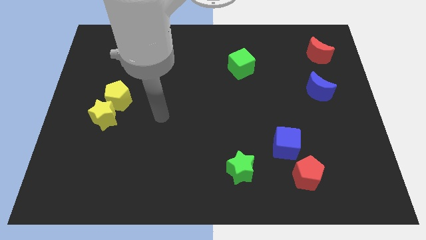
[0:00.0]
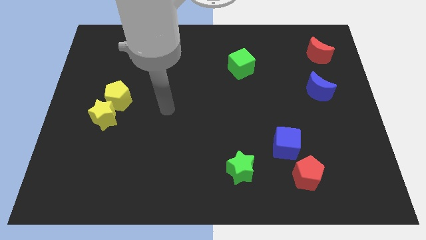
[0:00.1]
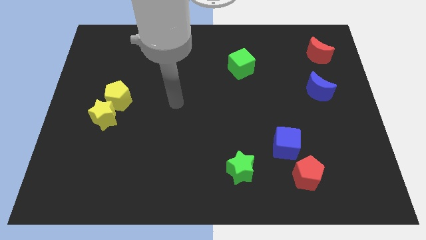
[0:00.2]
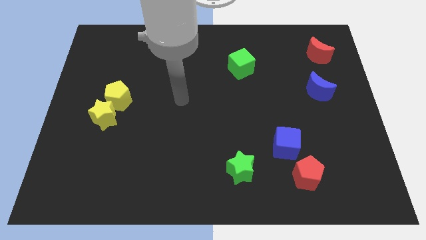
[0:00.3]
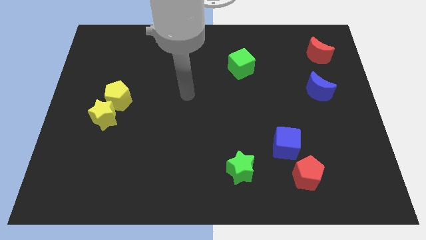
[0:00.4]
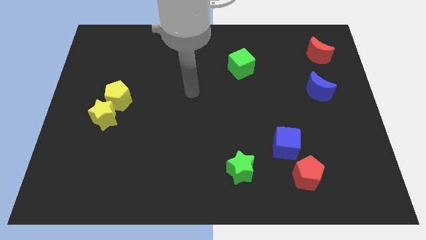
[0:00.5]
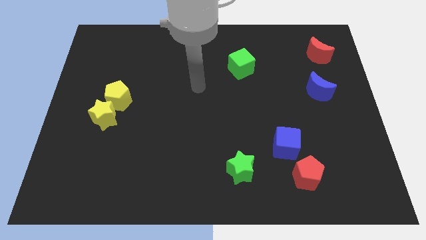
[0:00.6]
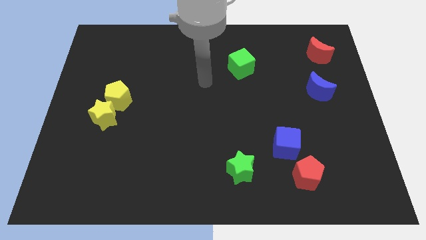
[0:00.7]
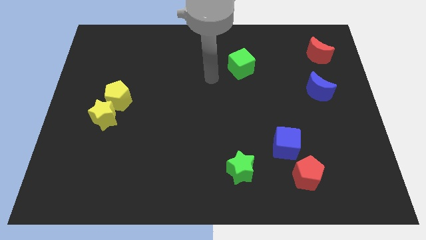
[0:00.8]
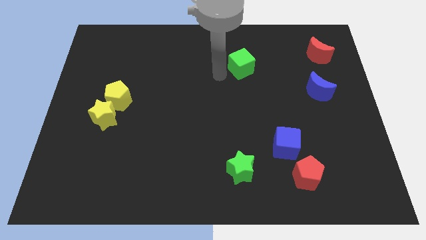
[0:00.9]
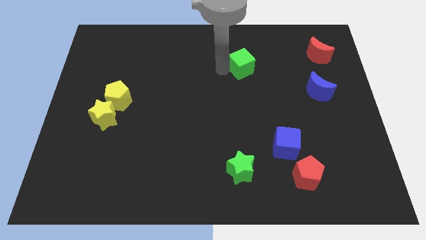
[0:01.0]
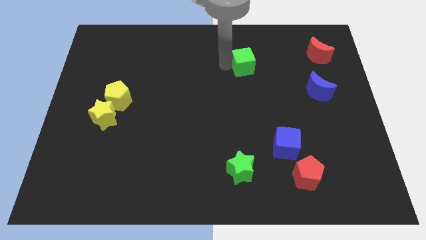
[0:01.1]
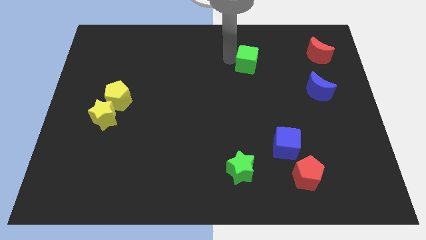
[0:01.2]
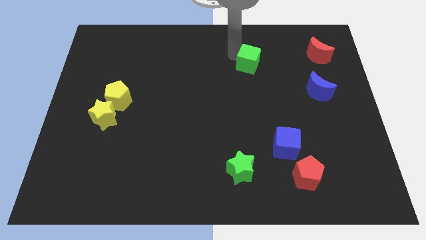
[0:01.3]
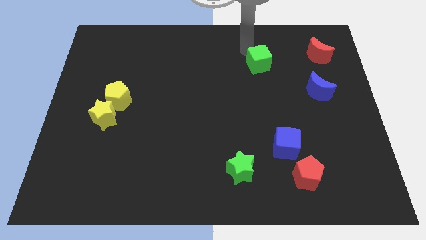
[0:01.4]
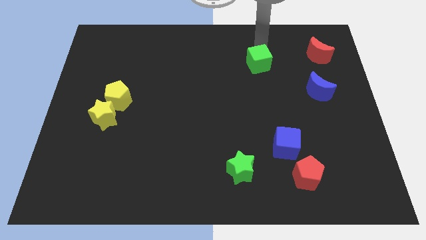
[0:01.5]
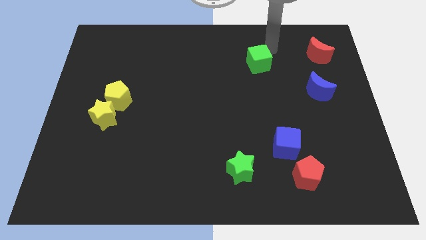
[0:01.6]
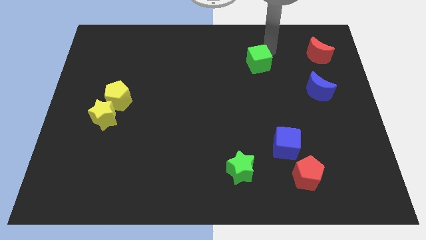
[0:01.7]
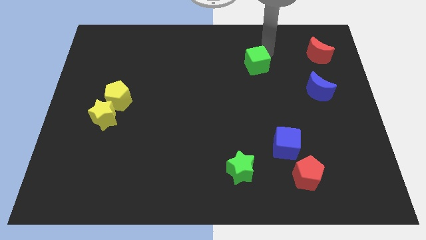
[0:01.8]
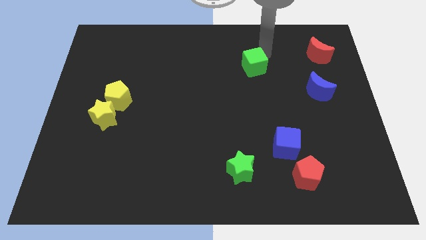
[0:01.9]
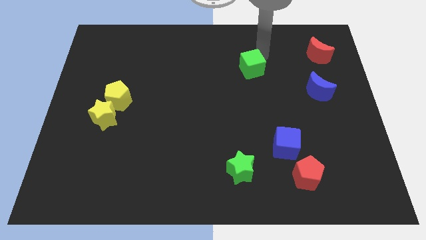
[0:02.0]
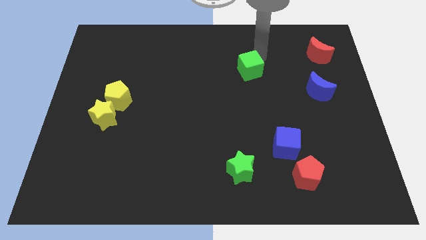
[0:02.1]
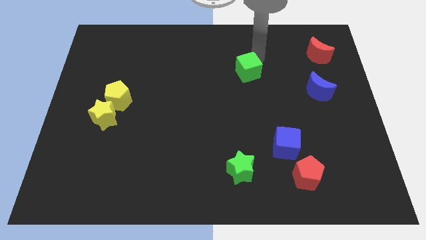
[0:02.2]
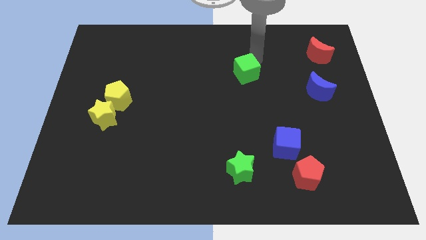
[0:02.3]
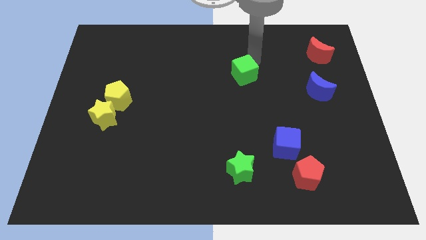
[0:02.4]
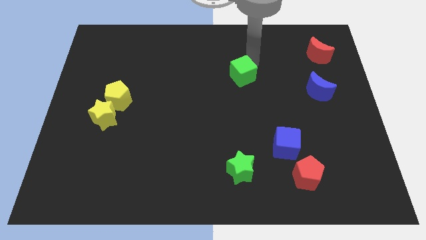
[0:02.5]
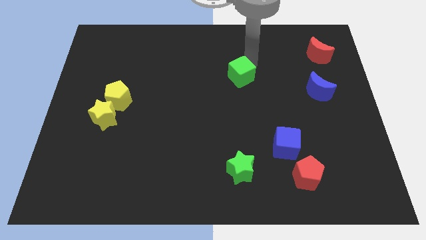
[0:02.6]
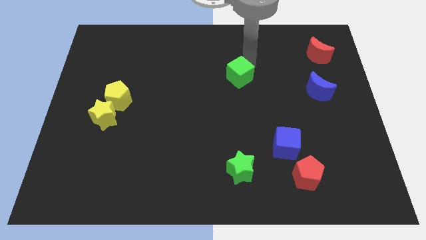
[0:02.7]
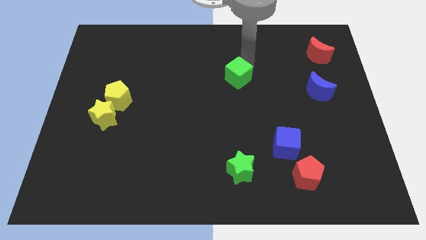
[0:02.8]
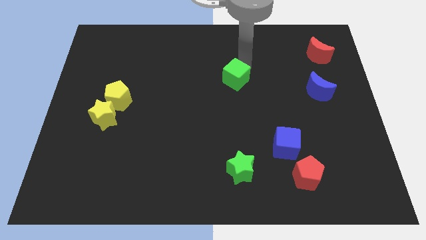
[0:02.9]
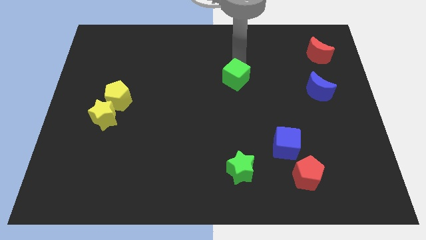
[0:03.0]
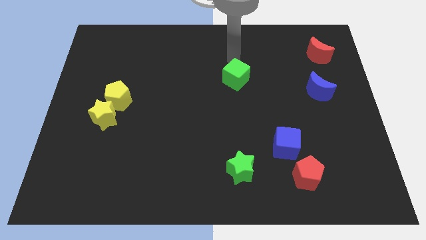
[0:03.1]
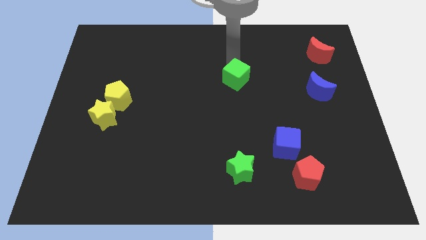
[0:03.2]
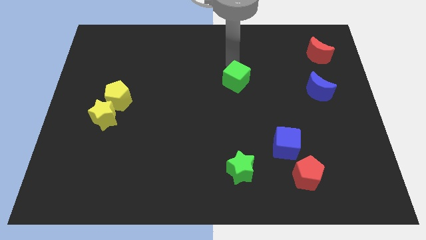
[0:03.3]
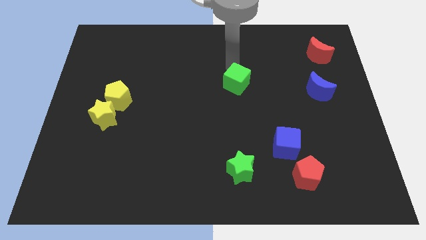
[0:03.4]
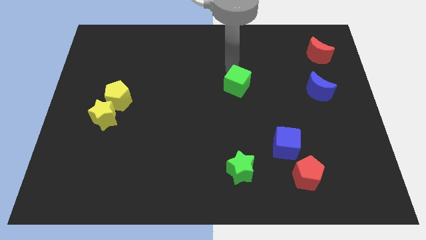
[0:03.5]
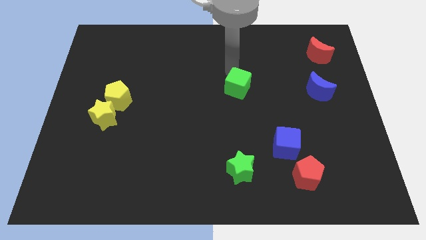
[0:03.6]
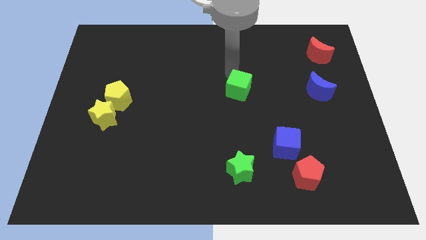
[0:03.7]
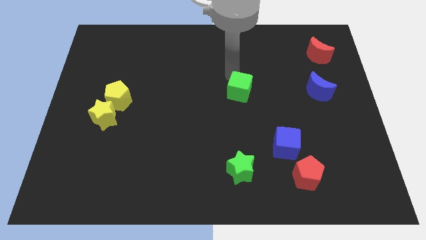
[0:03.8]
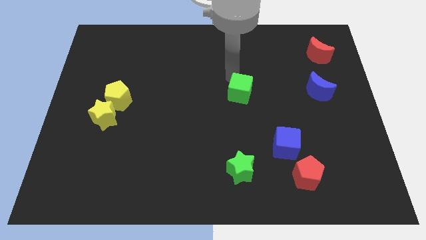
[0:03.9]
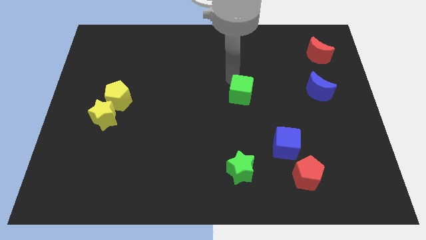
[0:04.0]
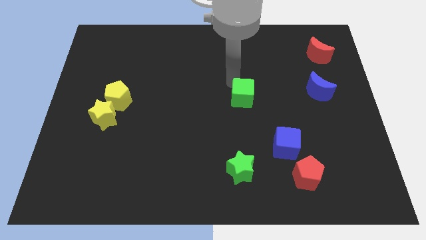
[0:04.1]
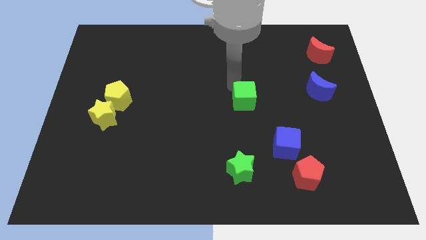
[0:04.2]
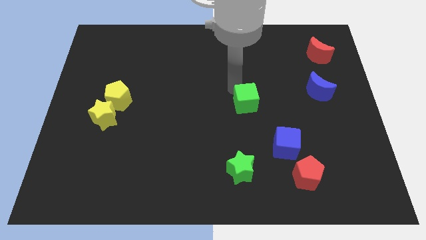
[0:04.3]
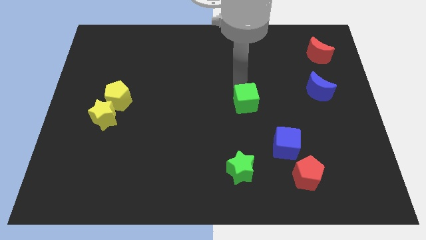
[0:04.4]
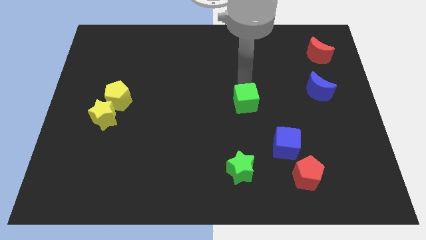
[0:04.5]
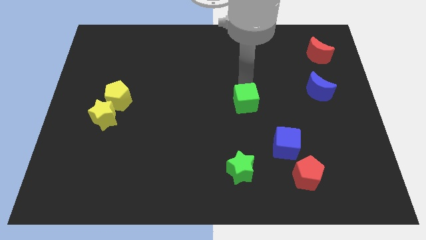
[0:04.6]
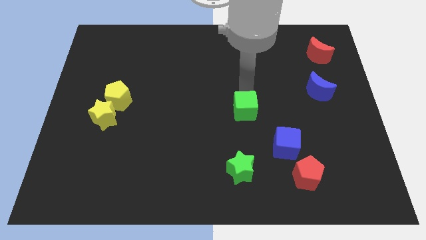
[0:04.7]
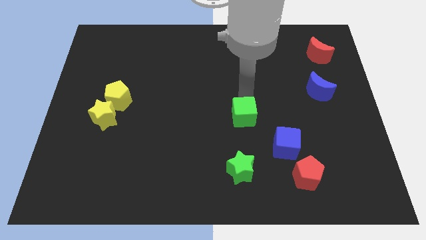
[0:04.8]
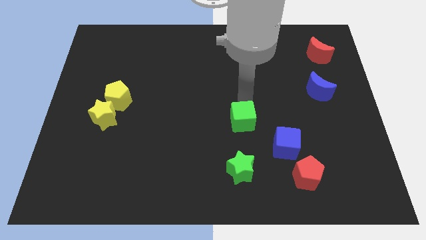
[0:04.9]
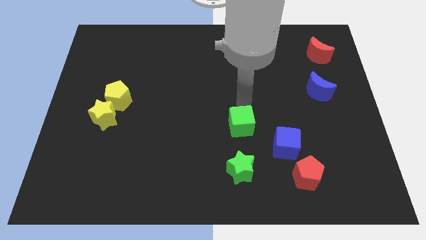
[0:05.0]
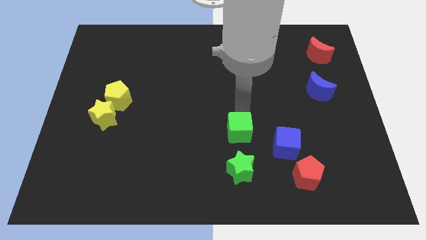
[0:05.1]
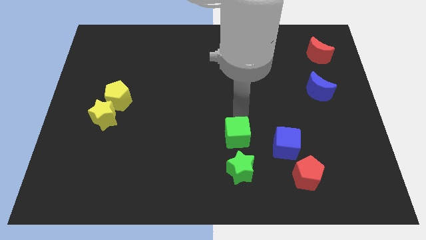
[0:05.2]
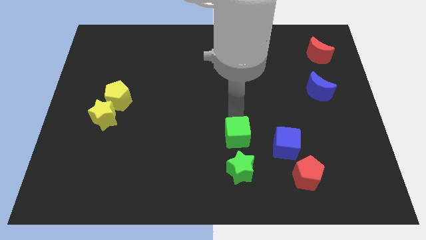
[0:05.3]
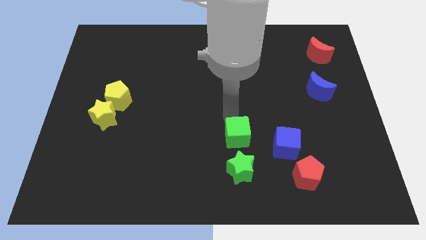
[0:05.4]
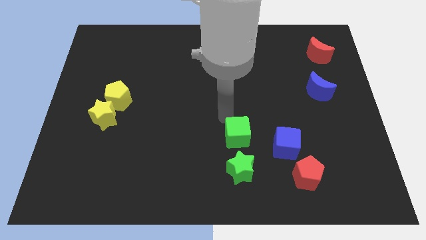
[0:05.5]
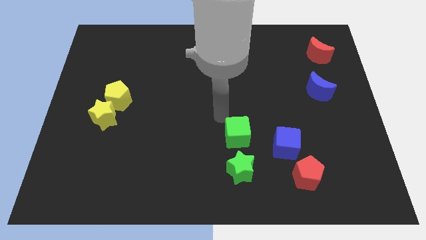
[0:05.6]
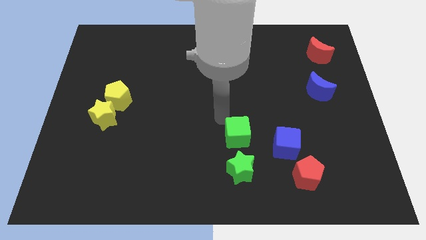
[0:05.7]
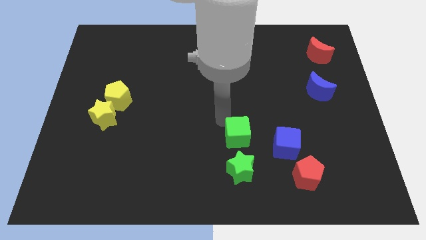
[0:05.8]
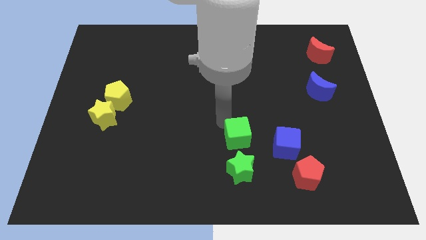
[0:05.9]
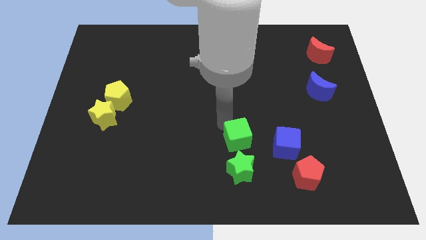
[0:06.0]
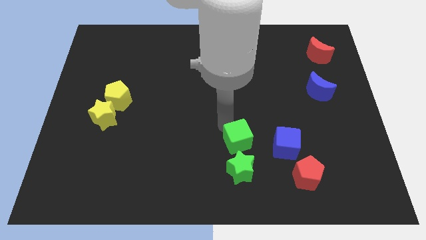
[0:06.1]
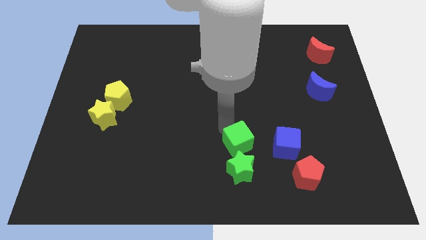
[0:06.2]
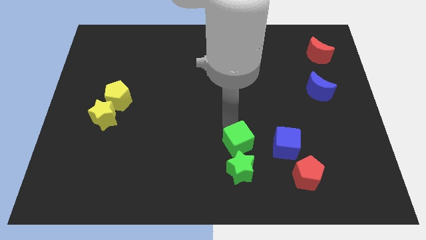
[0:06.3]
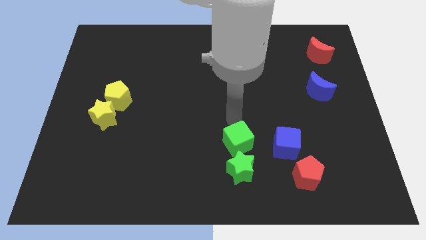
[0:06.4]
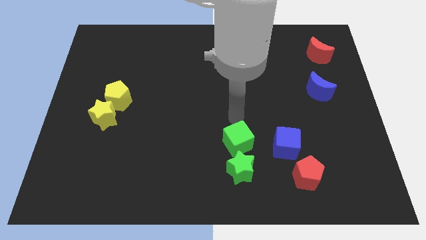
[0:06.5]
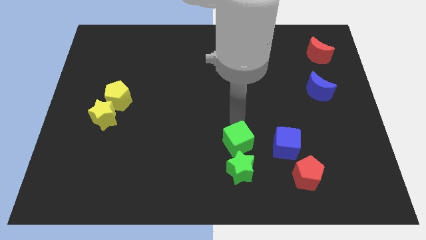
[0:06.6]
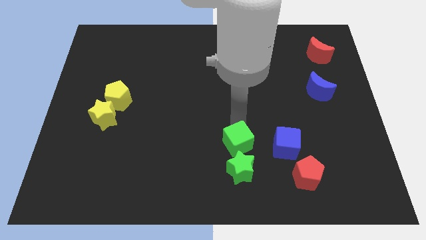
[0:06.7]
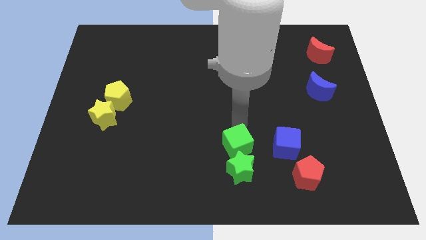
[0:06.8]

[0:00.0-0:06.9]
put the green cube next to the green star

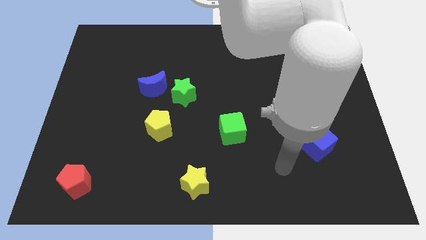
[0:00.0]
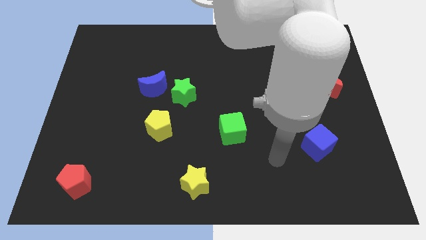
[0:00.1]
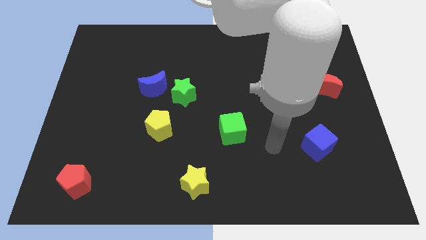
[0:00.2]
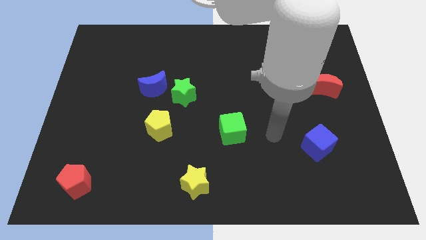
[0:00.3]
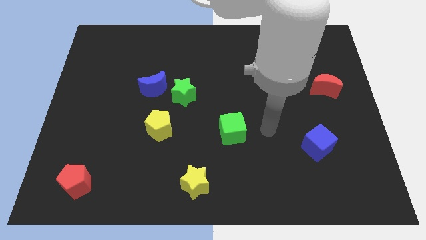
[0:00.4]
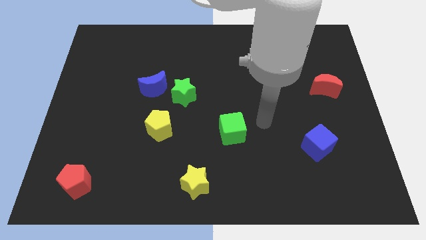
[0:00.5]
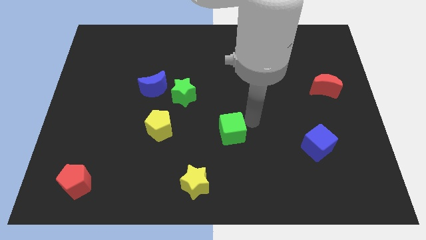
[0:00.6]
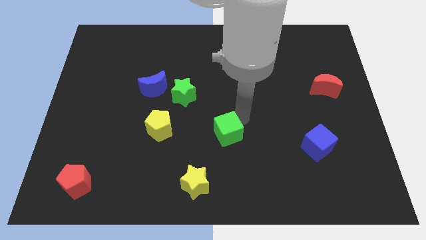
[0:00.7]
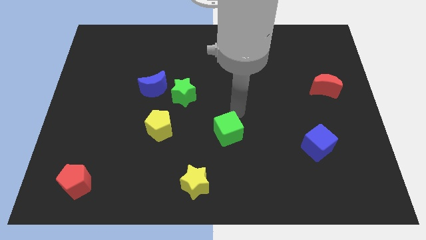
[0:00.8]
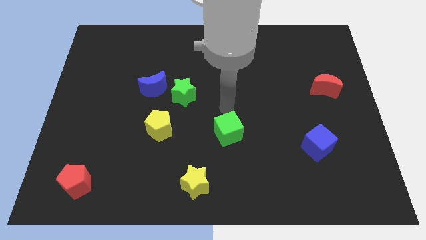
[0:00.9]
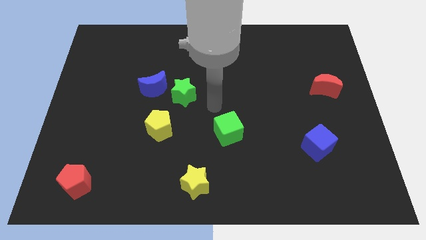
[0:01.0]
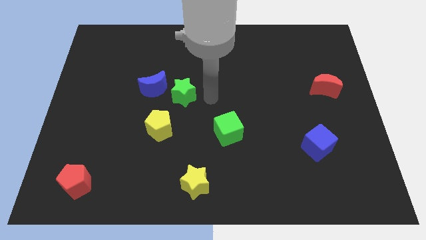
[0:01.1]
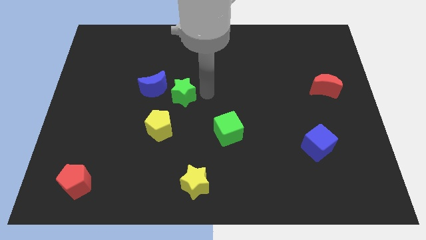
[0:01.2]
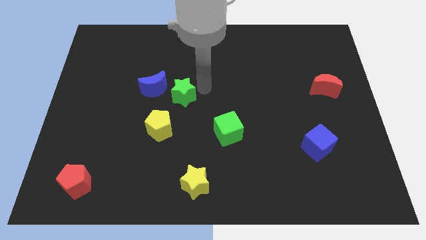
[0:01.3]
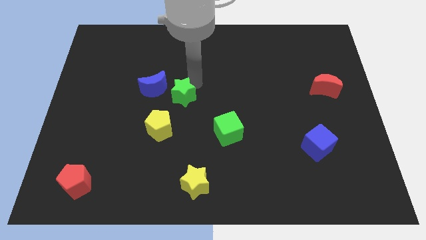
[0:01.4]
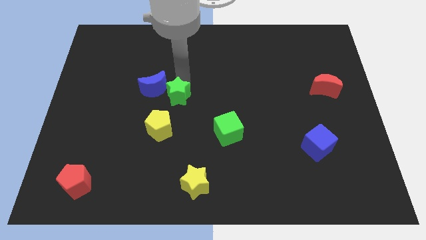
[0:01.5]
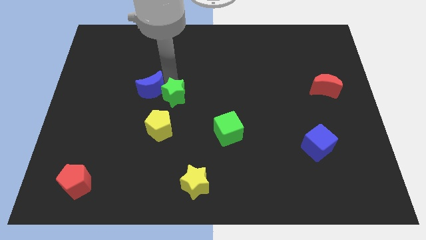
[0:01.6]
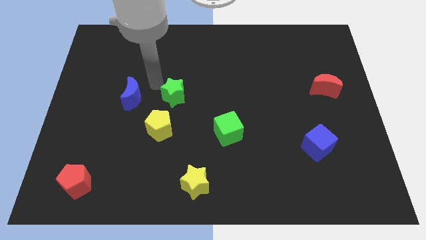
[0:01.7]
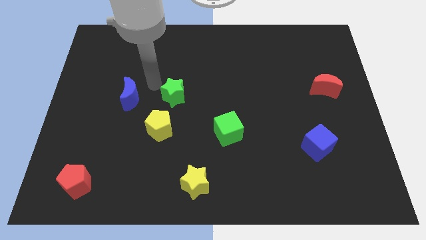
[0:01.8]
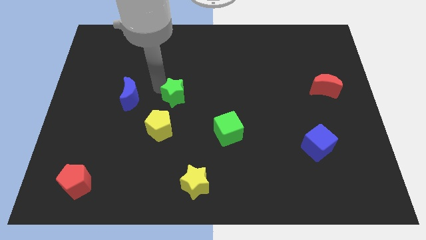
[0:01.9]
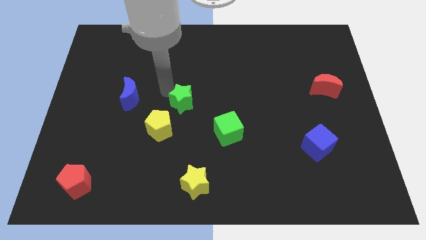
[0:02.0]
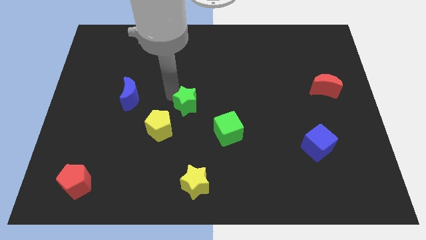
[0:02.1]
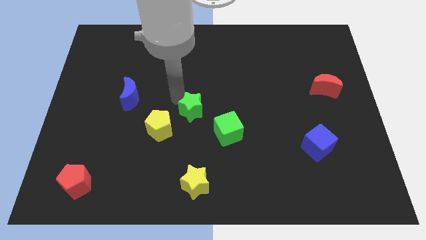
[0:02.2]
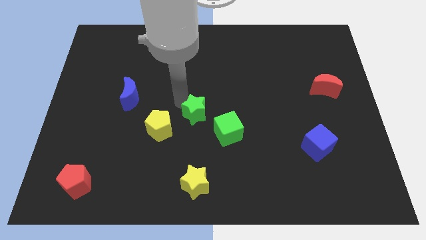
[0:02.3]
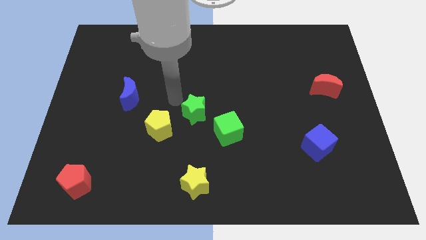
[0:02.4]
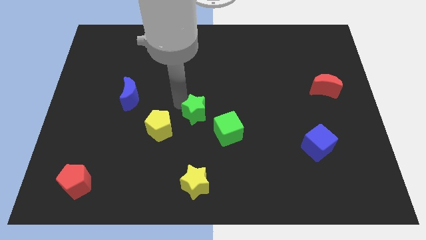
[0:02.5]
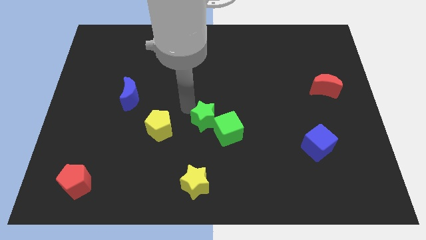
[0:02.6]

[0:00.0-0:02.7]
put the green star next to the green cube
